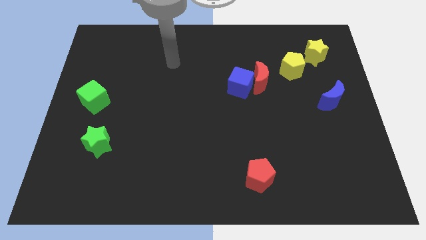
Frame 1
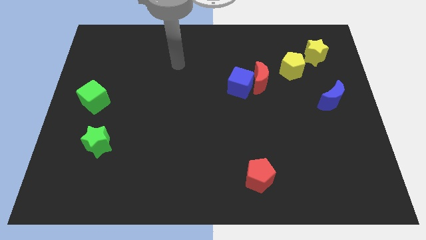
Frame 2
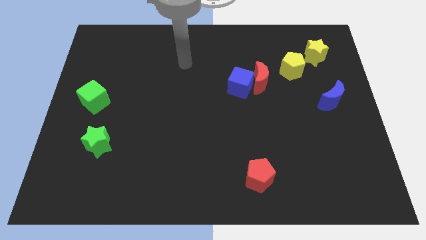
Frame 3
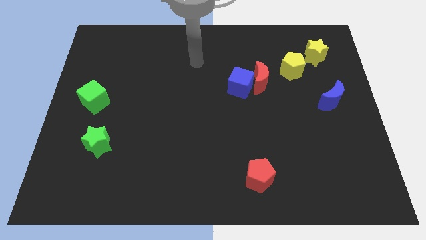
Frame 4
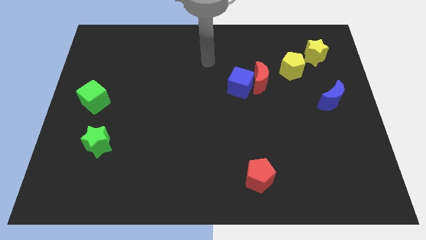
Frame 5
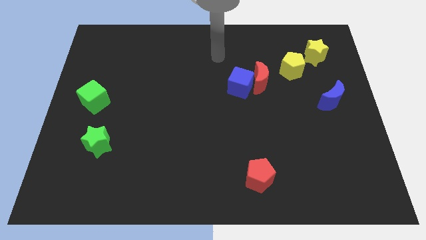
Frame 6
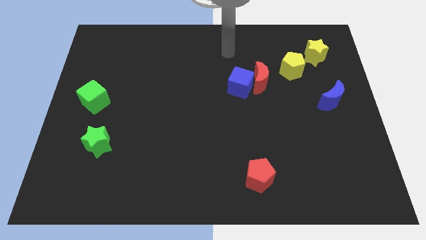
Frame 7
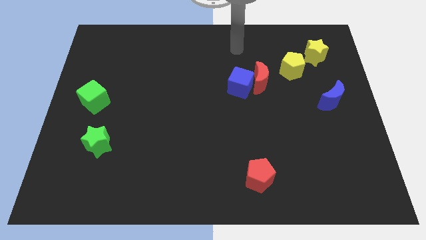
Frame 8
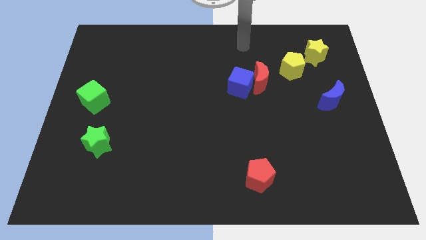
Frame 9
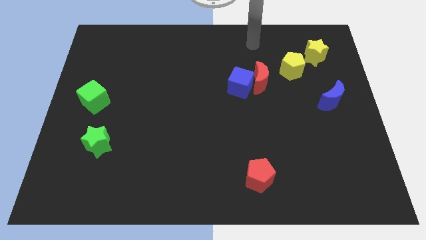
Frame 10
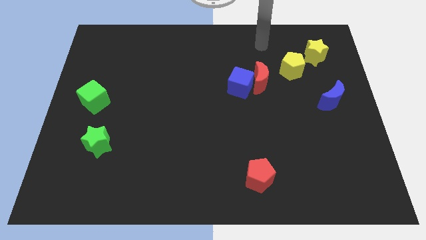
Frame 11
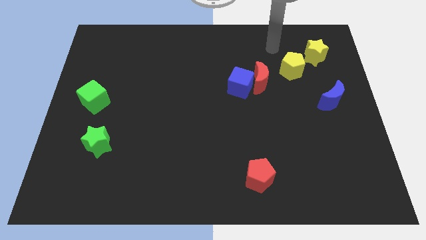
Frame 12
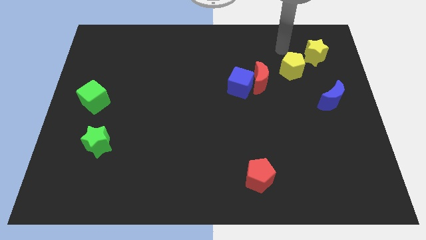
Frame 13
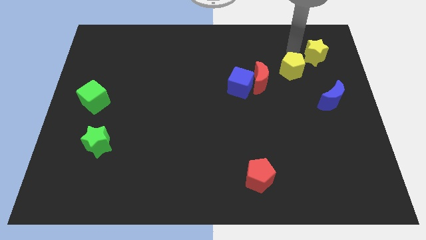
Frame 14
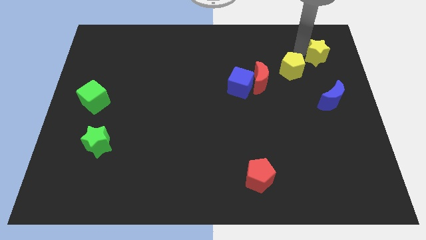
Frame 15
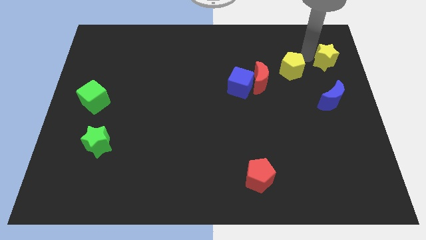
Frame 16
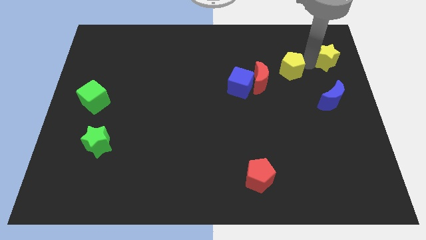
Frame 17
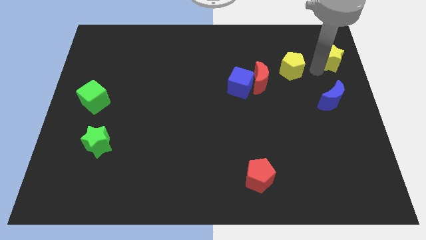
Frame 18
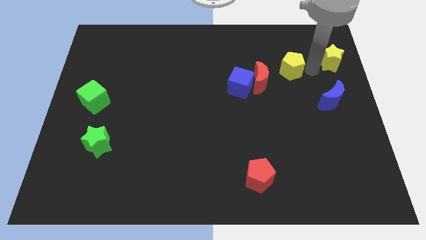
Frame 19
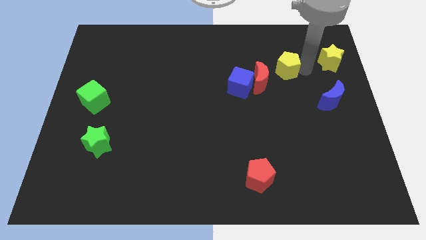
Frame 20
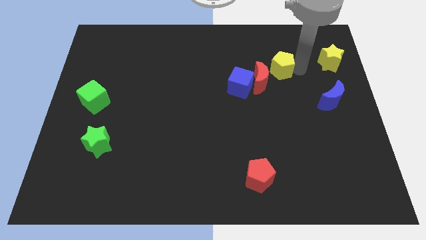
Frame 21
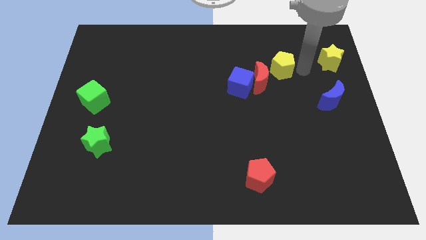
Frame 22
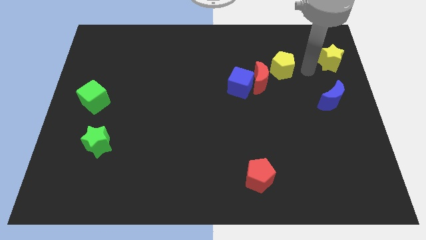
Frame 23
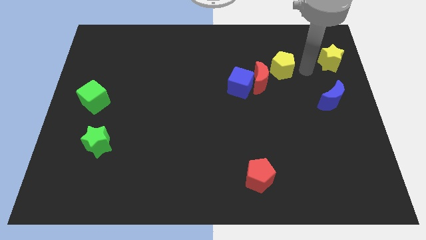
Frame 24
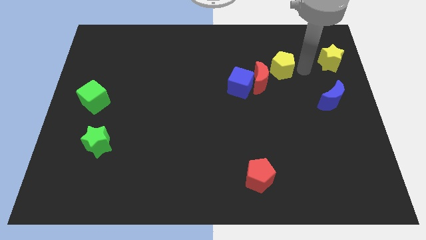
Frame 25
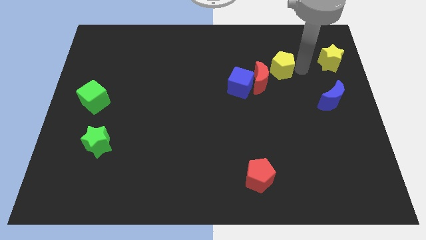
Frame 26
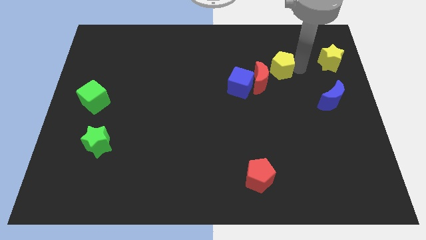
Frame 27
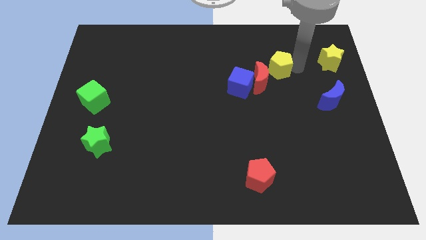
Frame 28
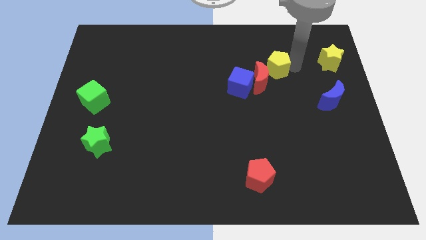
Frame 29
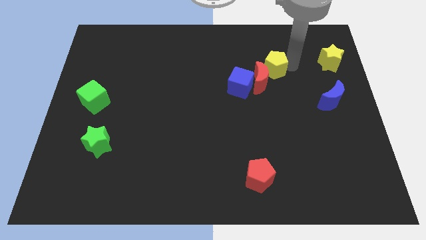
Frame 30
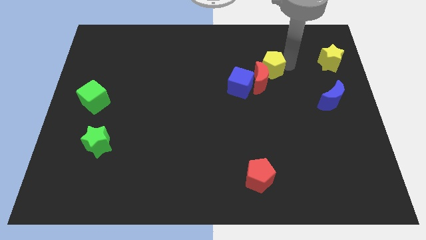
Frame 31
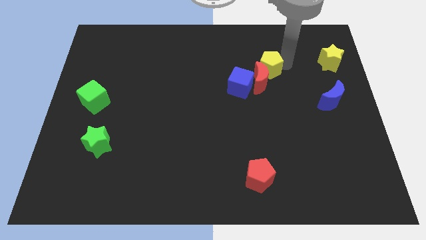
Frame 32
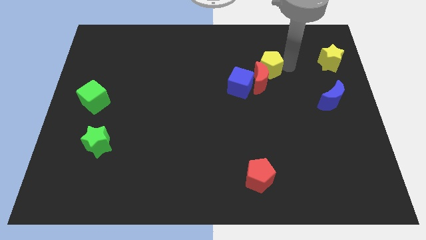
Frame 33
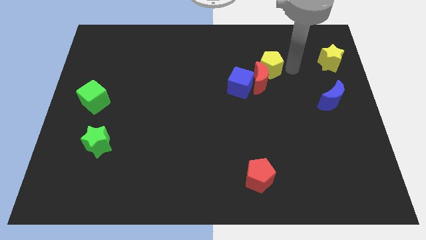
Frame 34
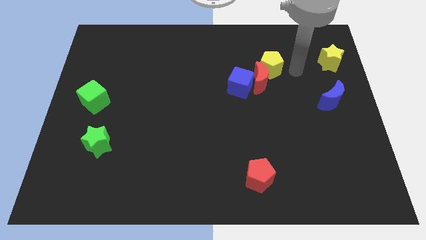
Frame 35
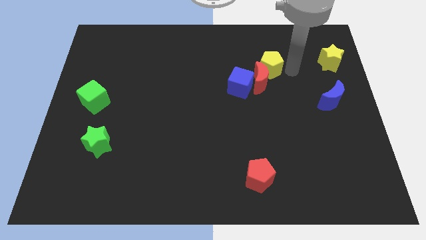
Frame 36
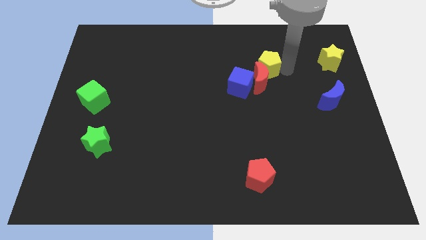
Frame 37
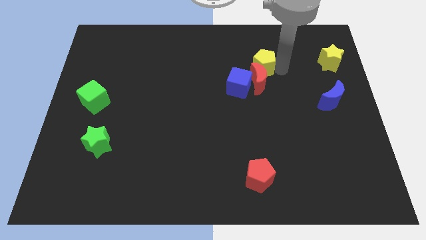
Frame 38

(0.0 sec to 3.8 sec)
slightly slide the yellow pentagon to the left

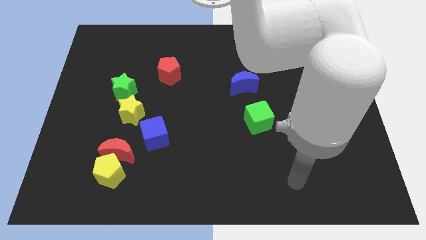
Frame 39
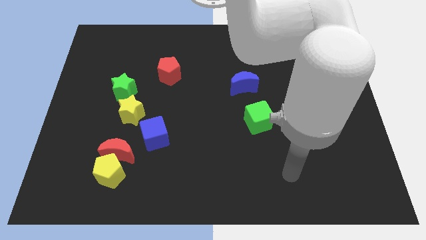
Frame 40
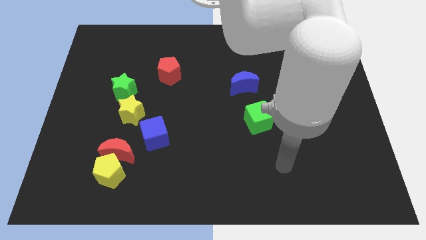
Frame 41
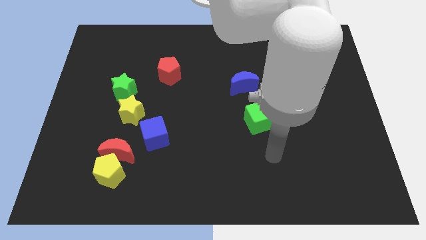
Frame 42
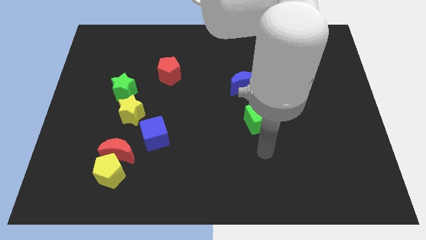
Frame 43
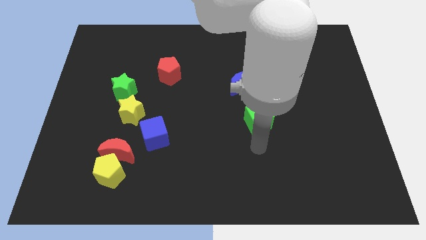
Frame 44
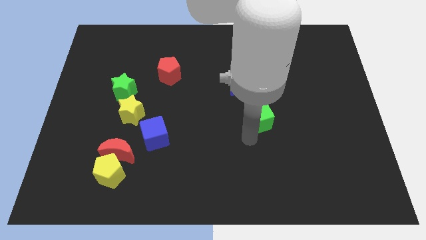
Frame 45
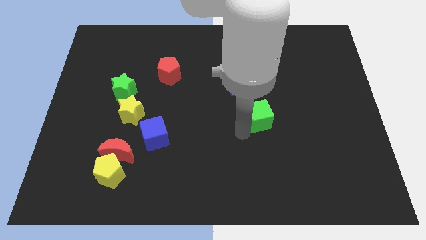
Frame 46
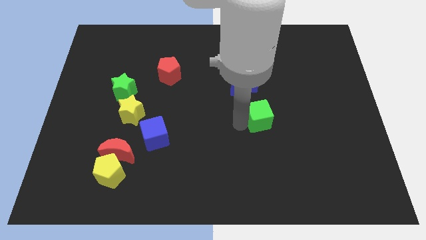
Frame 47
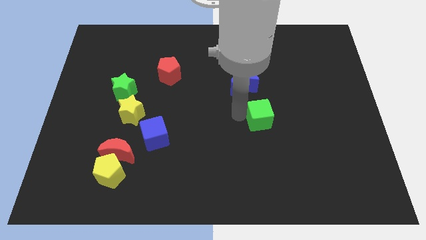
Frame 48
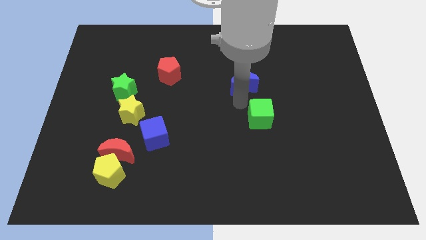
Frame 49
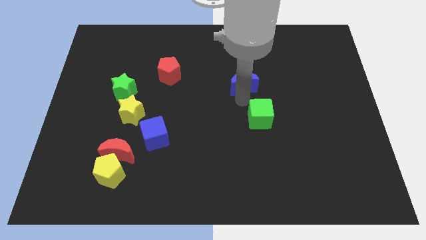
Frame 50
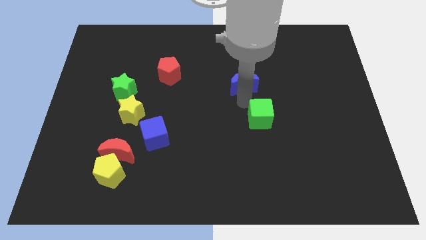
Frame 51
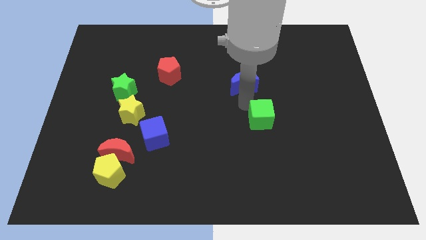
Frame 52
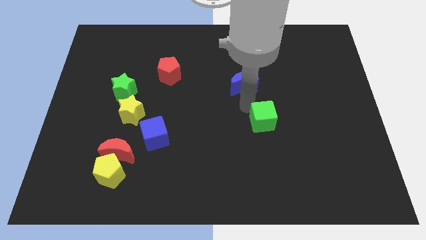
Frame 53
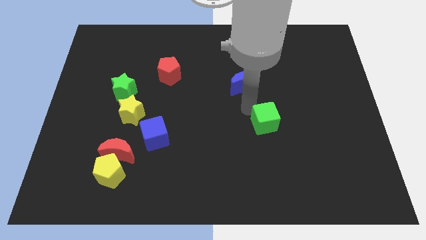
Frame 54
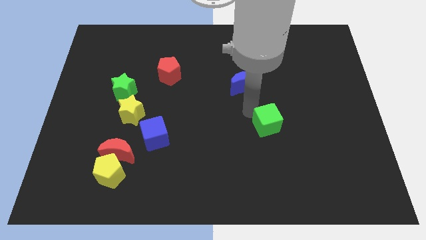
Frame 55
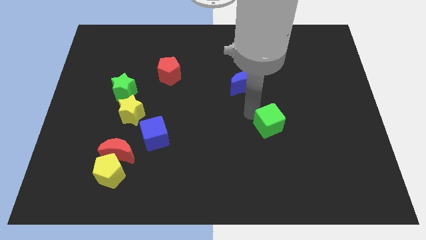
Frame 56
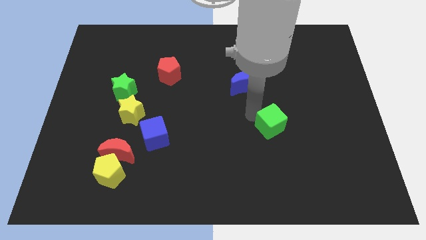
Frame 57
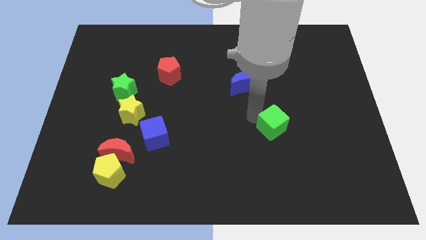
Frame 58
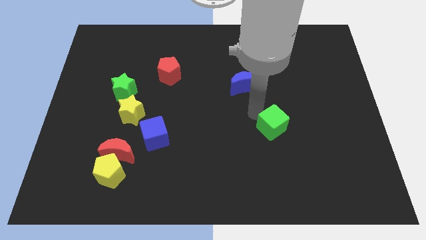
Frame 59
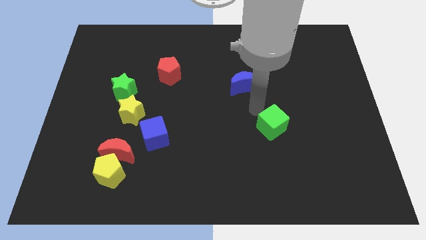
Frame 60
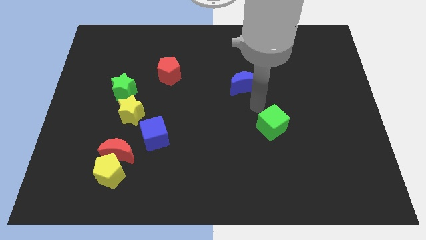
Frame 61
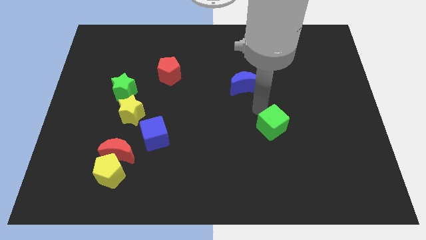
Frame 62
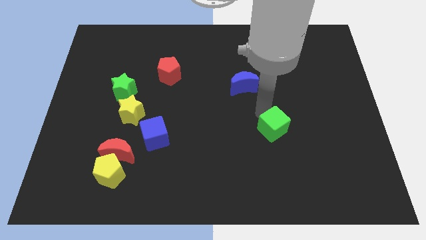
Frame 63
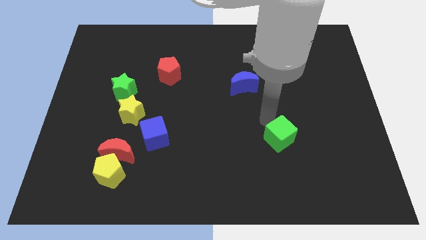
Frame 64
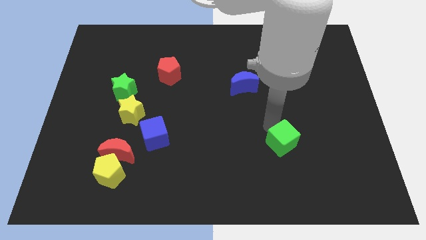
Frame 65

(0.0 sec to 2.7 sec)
slide the green cube down and to the right slightly

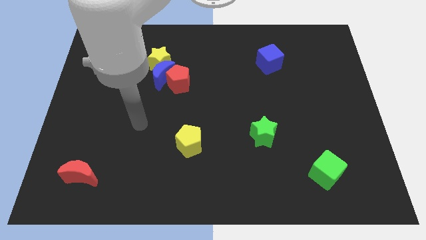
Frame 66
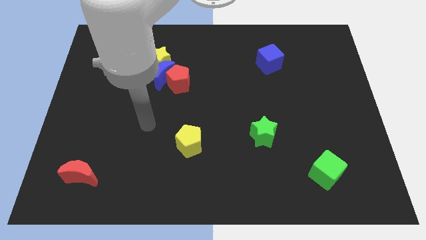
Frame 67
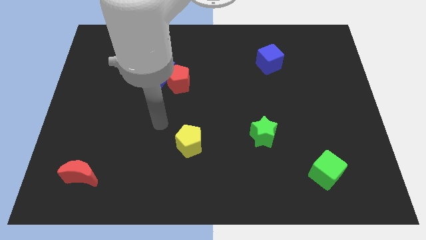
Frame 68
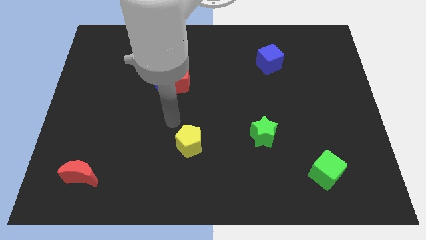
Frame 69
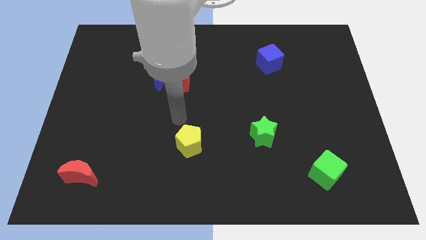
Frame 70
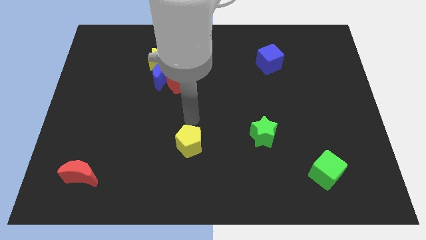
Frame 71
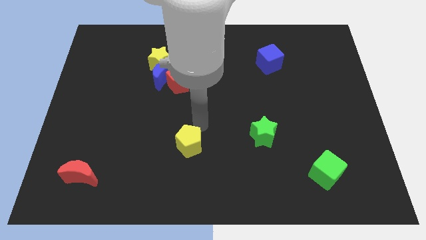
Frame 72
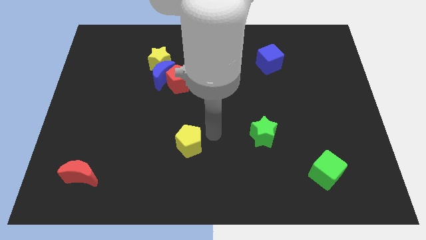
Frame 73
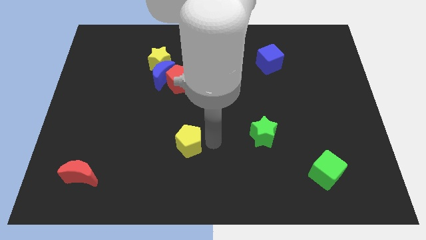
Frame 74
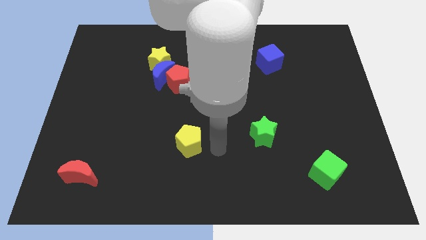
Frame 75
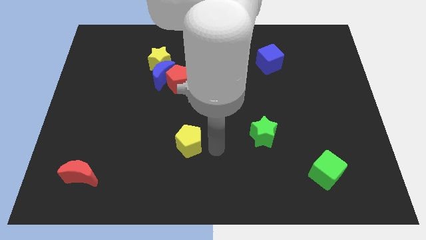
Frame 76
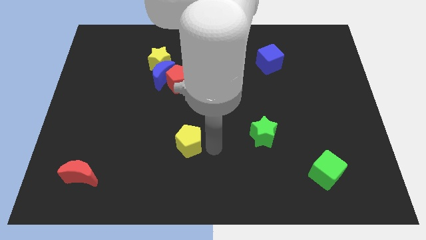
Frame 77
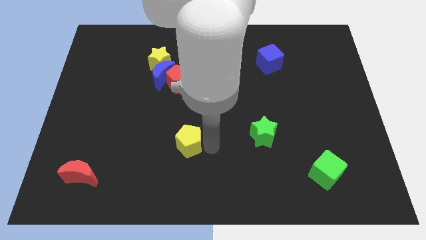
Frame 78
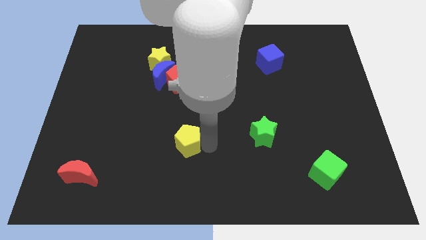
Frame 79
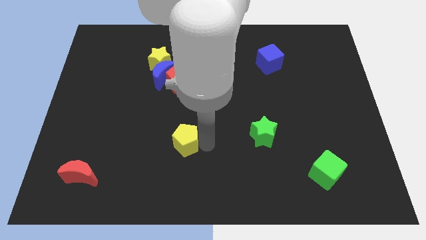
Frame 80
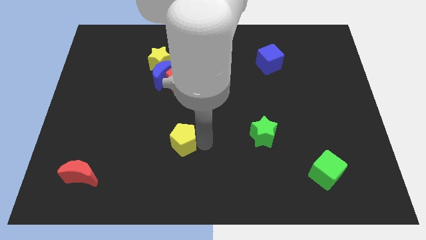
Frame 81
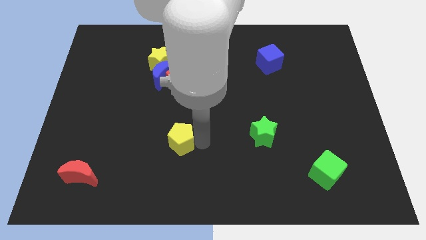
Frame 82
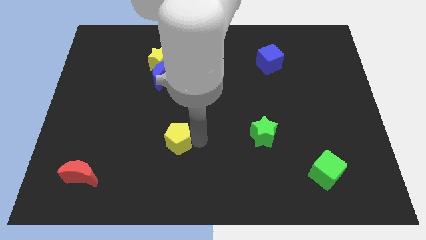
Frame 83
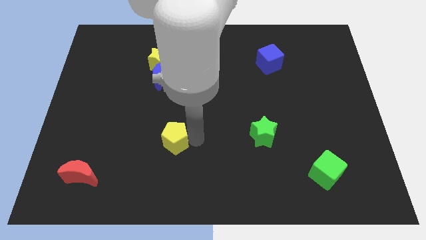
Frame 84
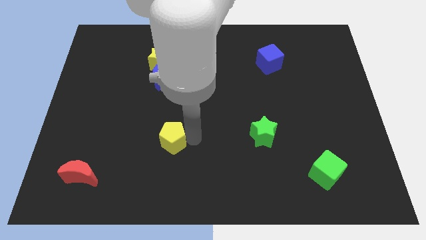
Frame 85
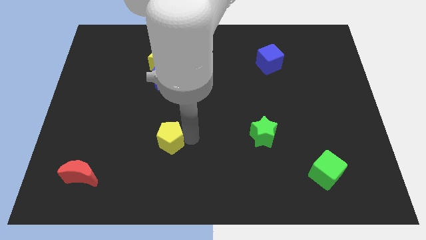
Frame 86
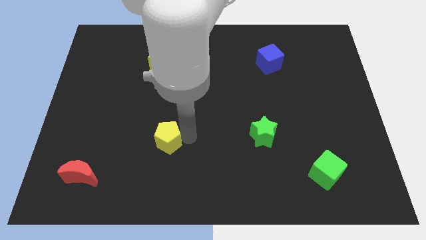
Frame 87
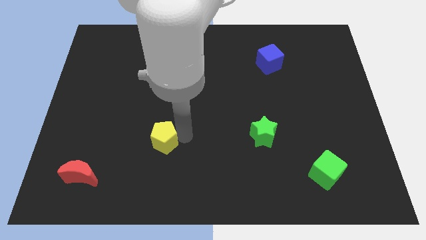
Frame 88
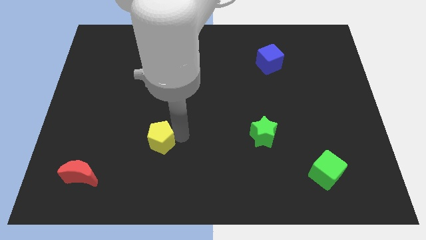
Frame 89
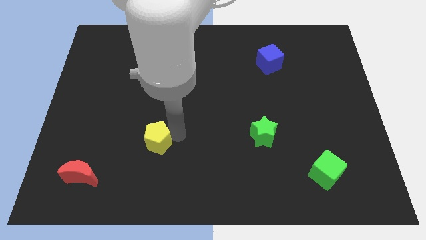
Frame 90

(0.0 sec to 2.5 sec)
slightly push the yellow pentagon to the left
